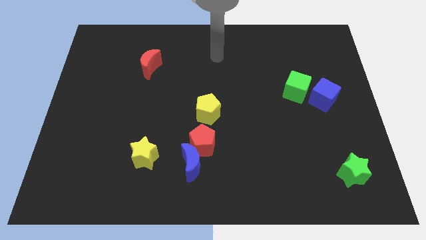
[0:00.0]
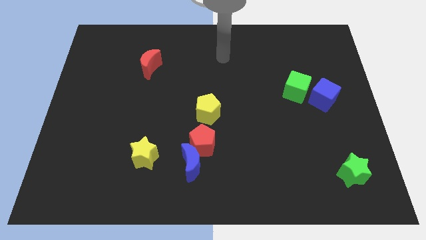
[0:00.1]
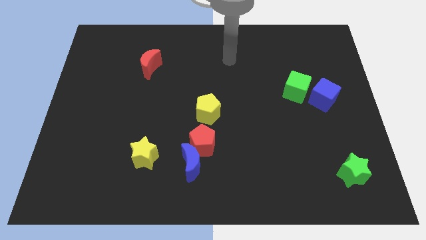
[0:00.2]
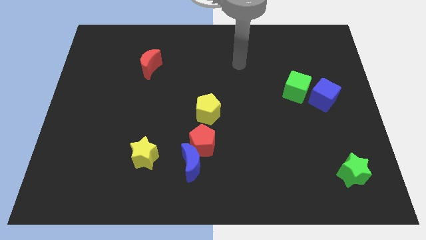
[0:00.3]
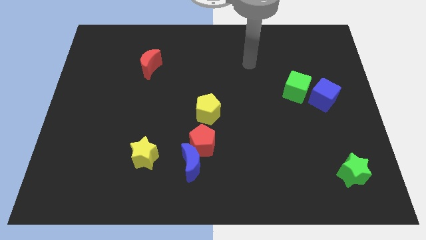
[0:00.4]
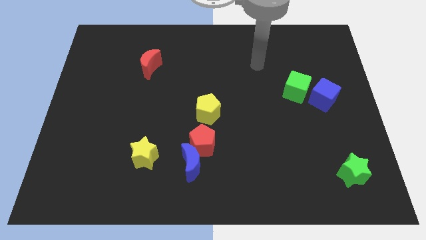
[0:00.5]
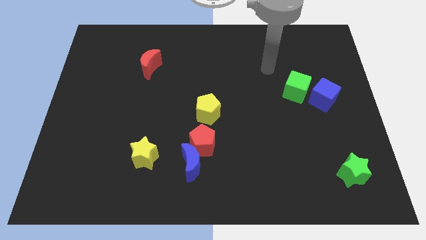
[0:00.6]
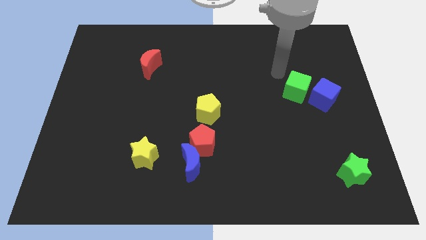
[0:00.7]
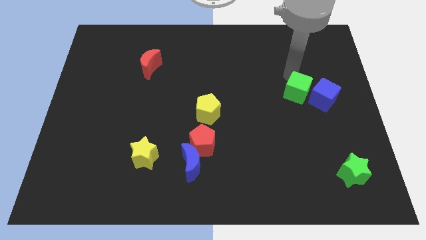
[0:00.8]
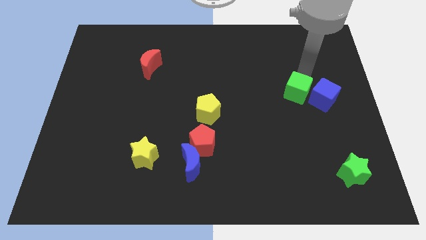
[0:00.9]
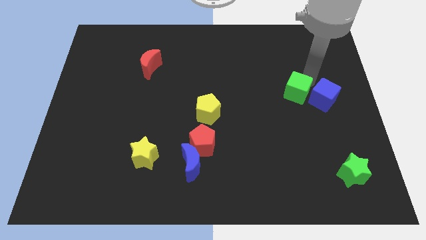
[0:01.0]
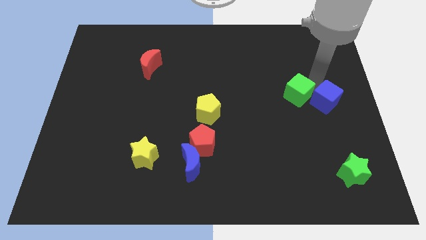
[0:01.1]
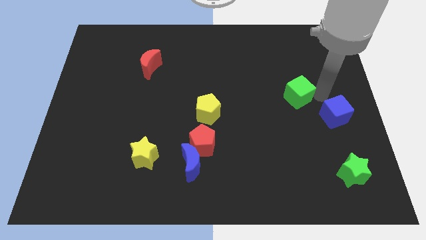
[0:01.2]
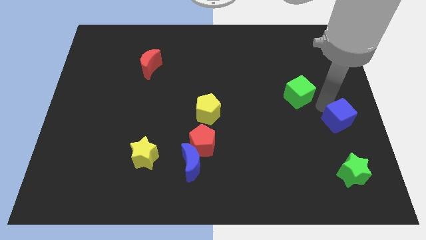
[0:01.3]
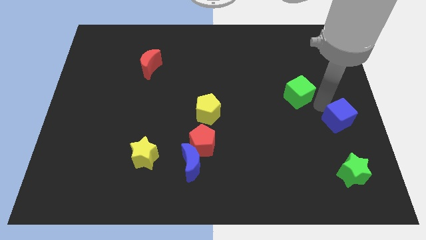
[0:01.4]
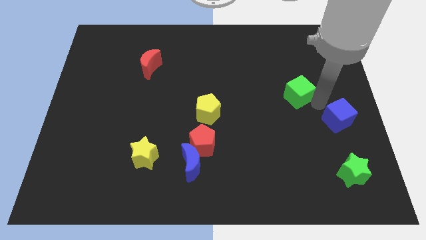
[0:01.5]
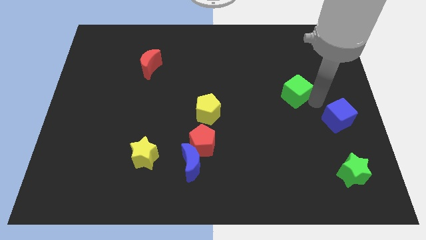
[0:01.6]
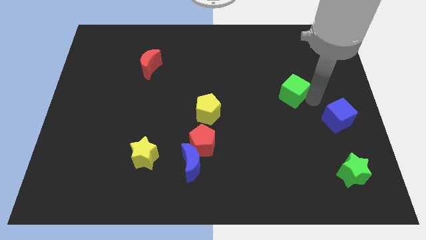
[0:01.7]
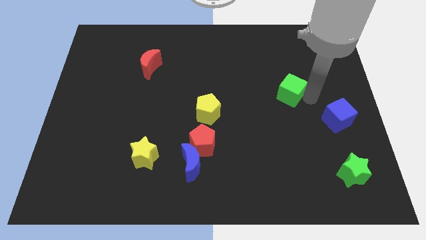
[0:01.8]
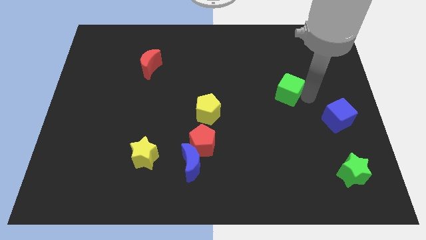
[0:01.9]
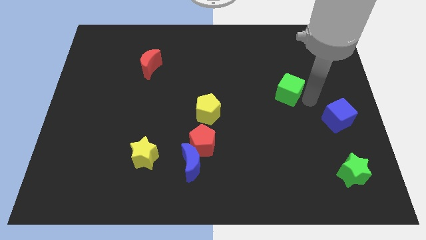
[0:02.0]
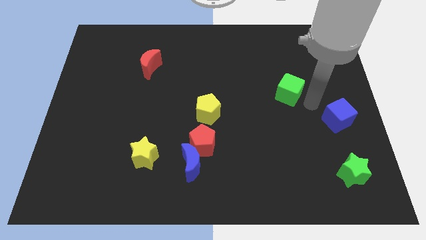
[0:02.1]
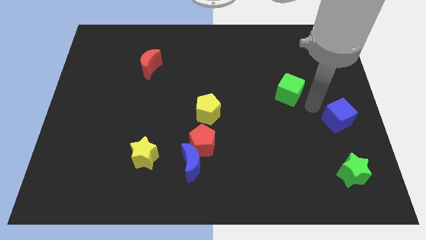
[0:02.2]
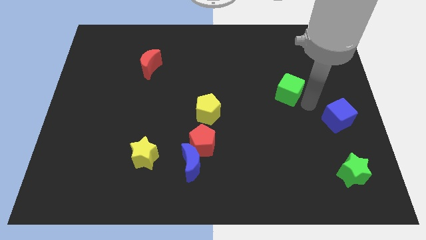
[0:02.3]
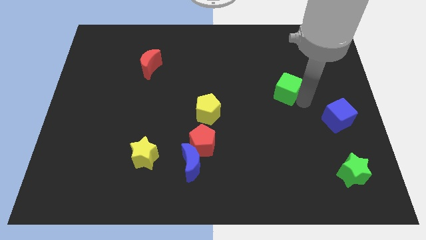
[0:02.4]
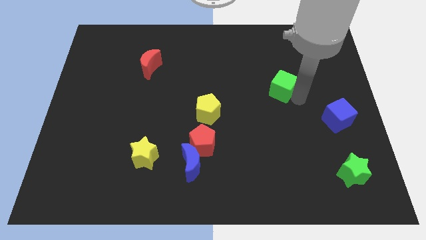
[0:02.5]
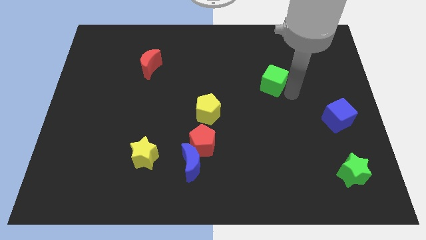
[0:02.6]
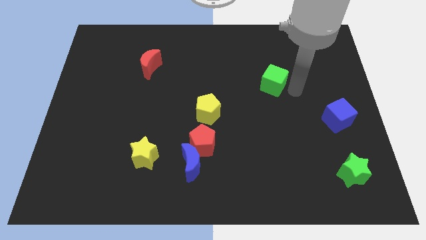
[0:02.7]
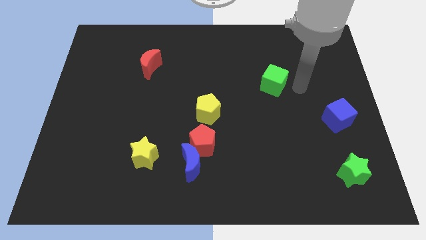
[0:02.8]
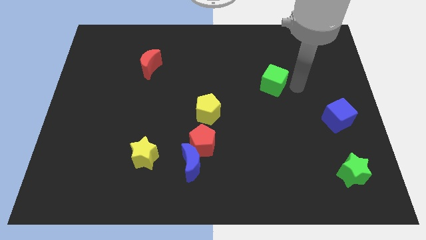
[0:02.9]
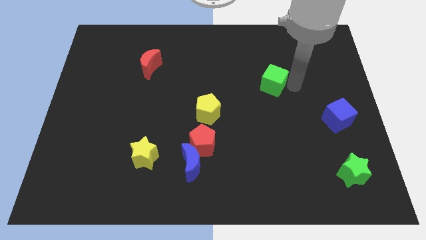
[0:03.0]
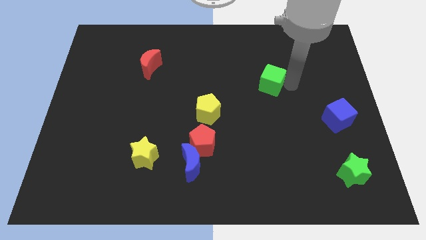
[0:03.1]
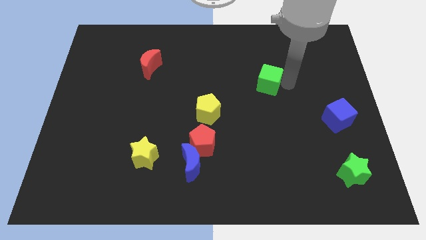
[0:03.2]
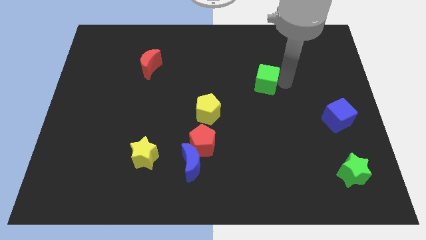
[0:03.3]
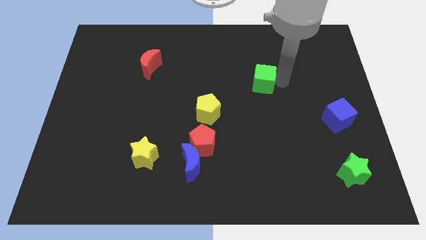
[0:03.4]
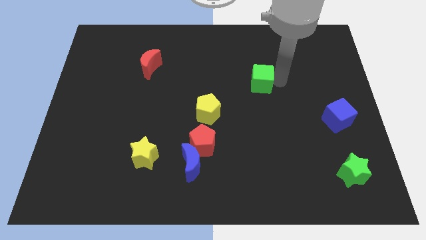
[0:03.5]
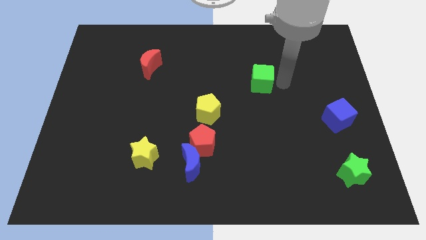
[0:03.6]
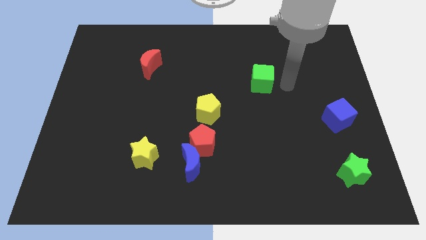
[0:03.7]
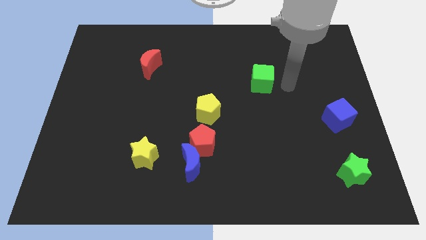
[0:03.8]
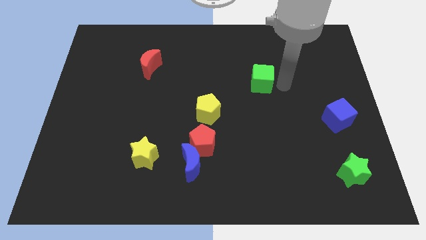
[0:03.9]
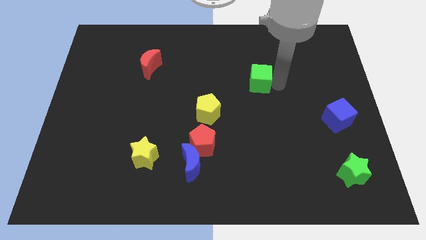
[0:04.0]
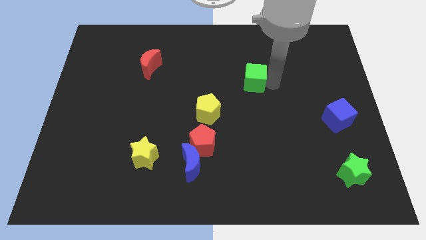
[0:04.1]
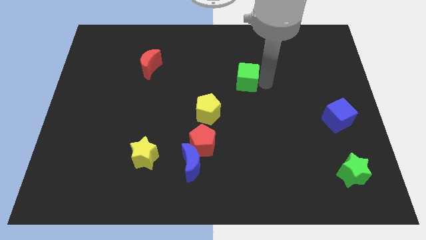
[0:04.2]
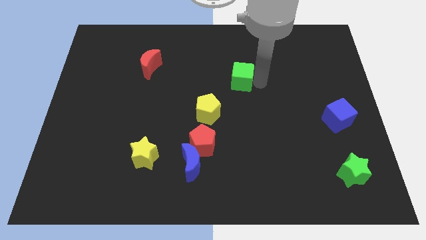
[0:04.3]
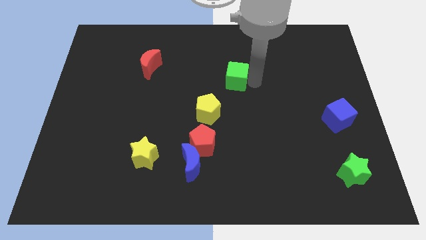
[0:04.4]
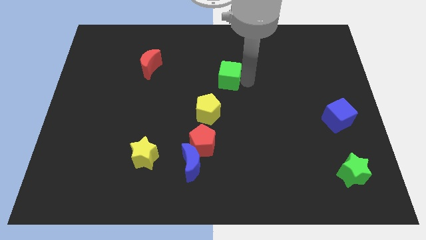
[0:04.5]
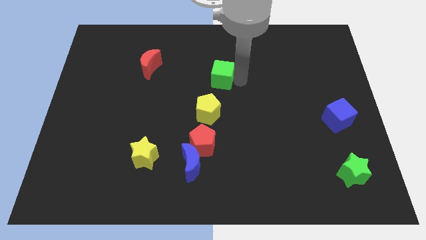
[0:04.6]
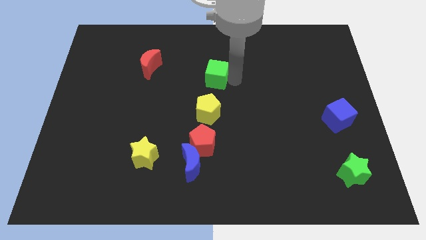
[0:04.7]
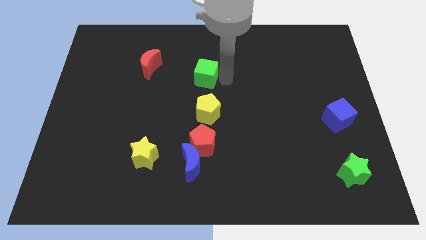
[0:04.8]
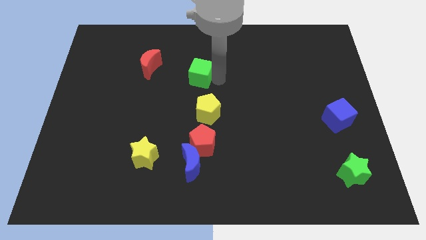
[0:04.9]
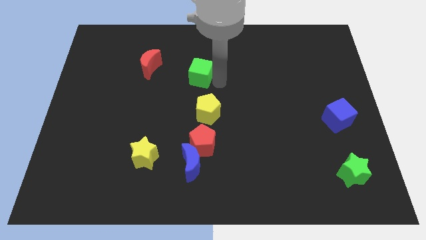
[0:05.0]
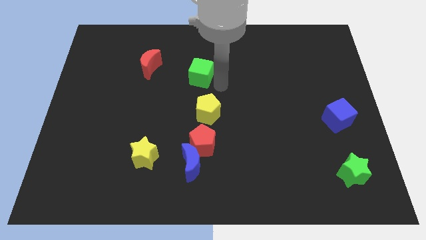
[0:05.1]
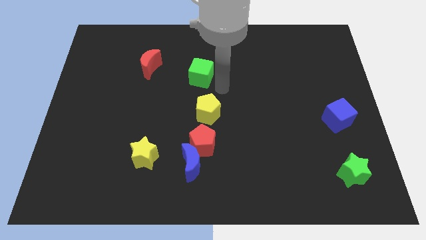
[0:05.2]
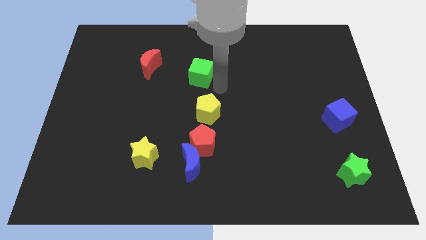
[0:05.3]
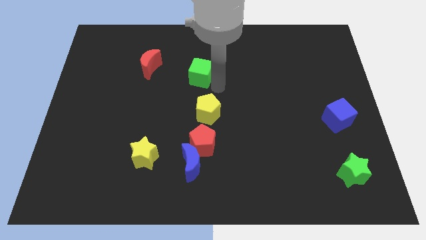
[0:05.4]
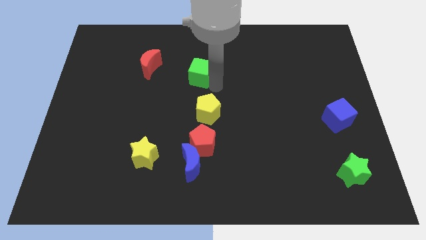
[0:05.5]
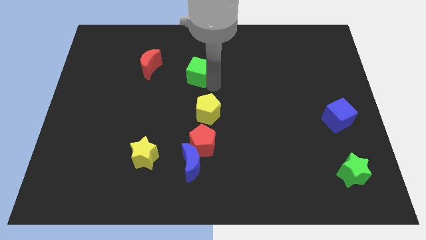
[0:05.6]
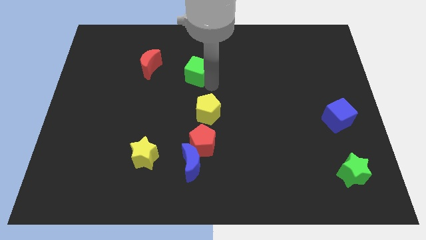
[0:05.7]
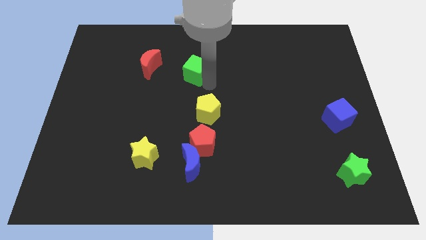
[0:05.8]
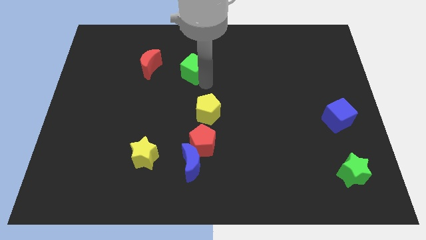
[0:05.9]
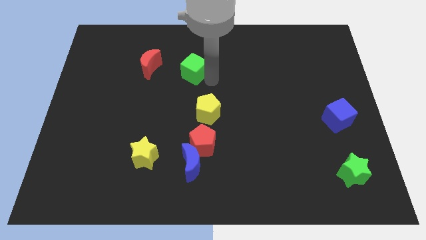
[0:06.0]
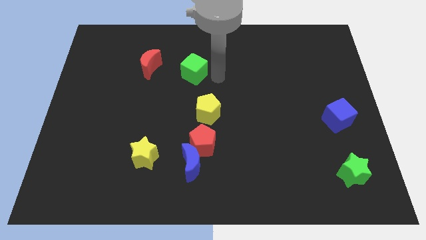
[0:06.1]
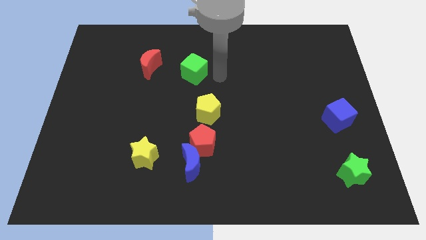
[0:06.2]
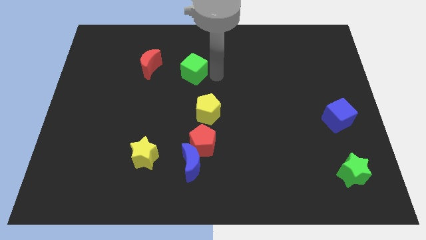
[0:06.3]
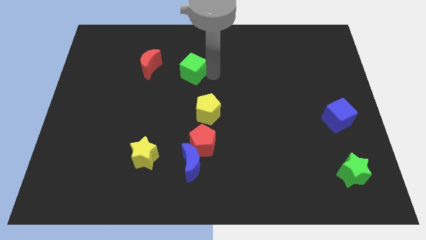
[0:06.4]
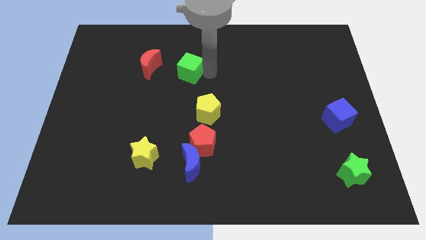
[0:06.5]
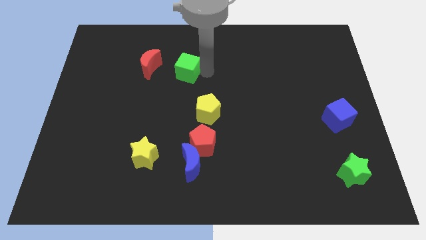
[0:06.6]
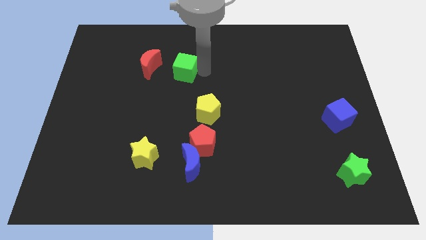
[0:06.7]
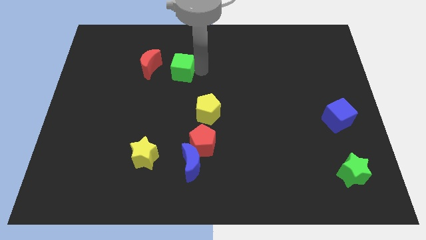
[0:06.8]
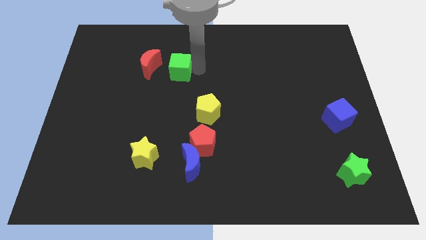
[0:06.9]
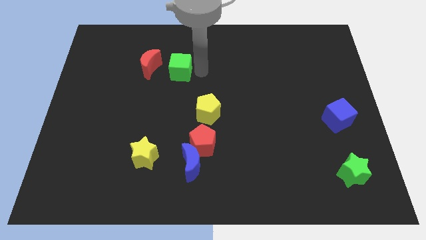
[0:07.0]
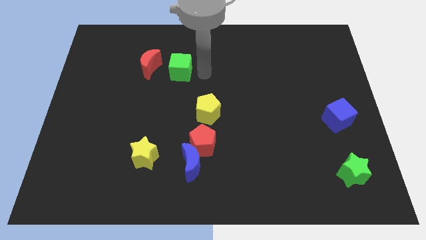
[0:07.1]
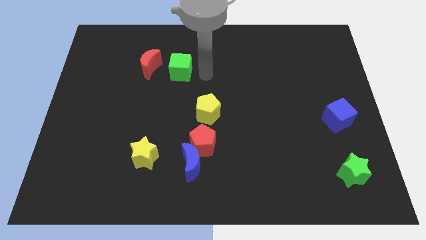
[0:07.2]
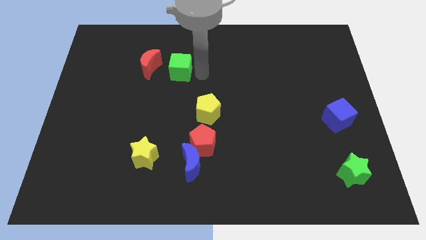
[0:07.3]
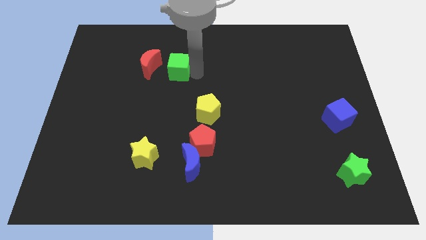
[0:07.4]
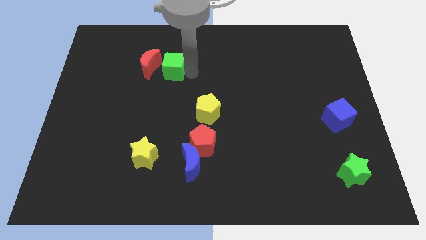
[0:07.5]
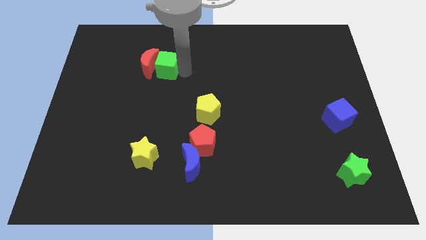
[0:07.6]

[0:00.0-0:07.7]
push the green cube close to the red moon
